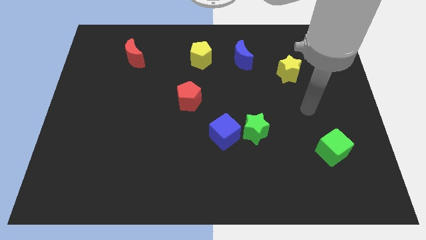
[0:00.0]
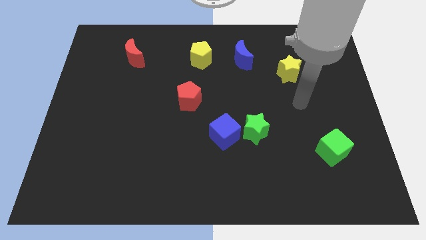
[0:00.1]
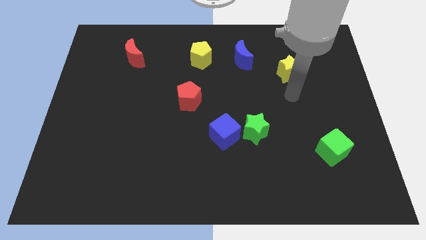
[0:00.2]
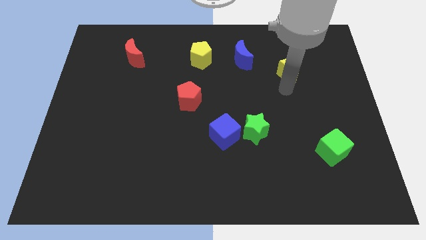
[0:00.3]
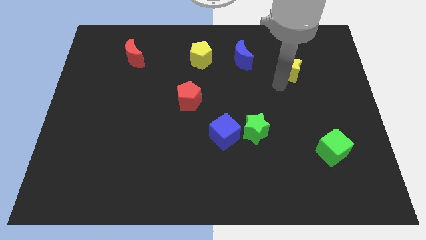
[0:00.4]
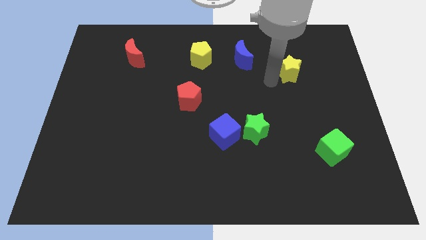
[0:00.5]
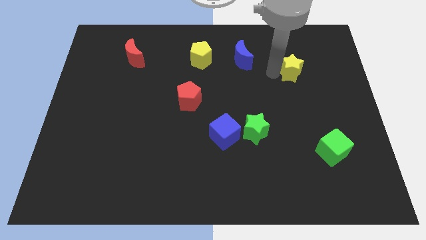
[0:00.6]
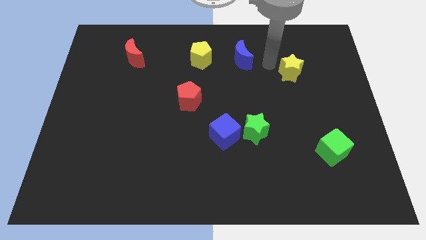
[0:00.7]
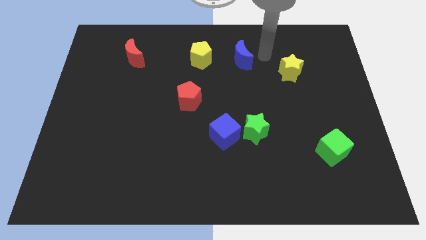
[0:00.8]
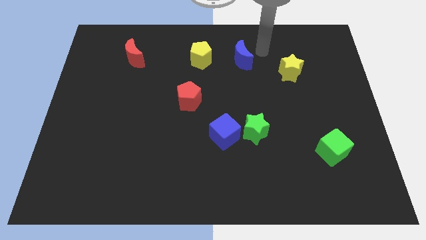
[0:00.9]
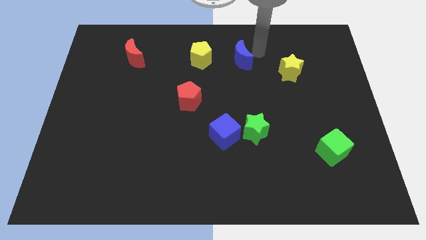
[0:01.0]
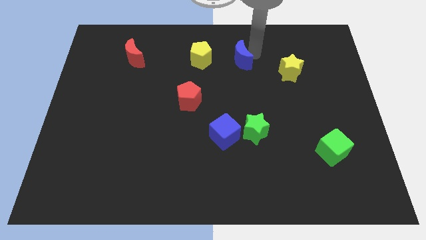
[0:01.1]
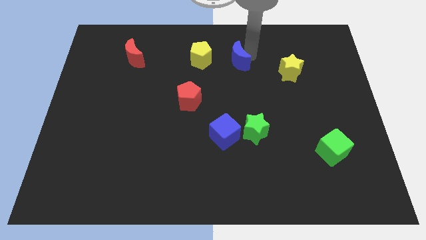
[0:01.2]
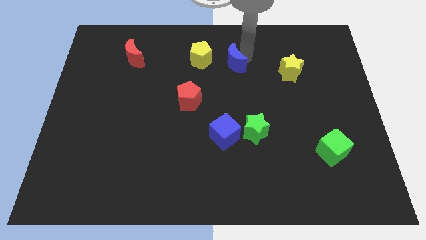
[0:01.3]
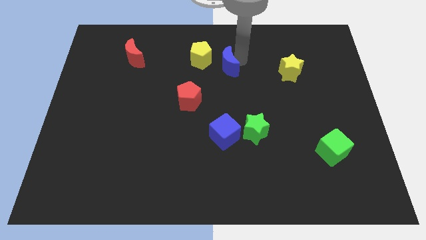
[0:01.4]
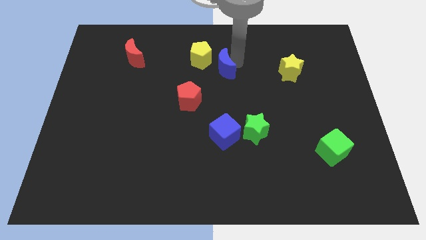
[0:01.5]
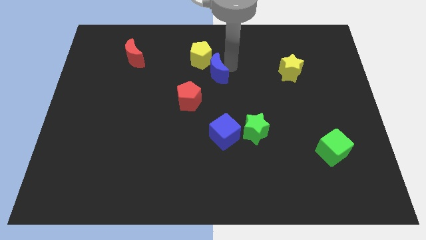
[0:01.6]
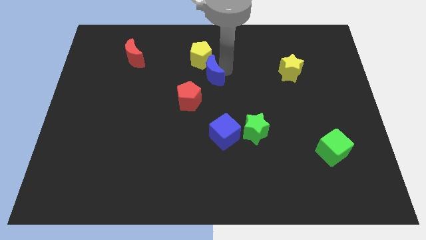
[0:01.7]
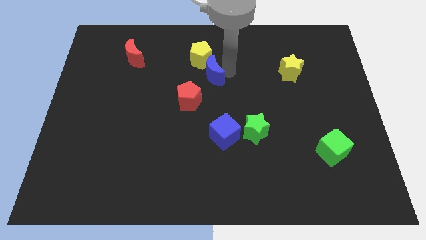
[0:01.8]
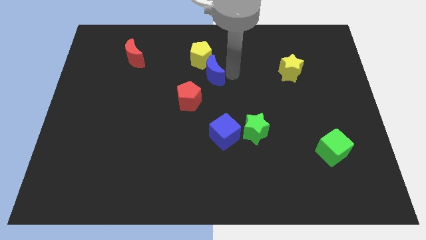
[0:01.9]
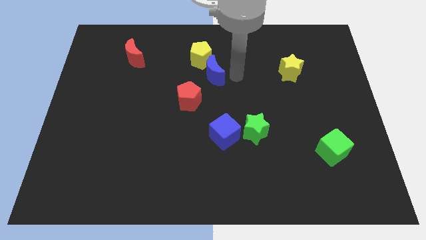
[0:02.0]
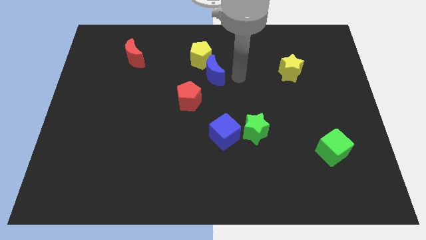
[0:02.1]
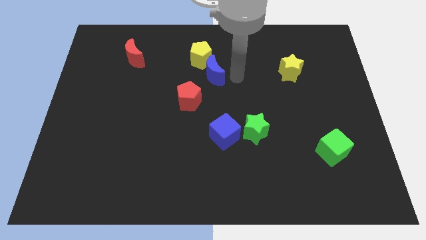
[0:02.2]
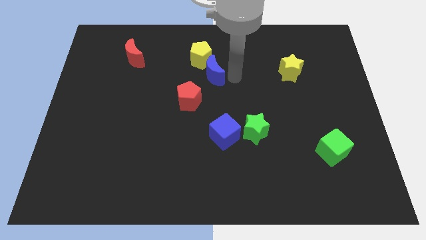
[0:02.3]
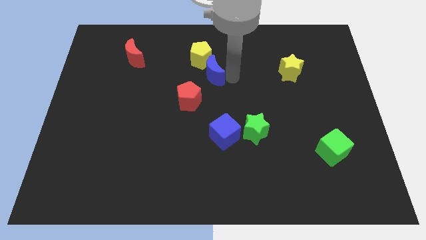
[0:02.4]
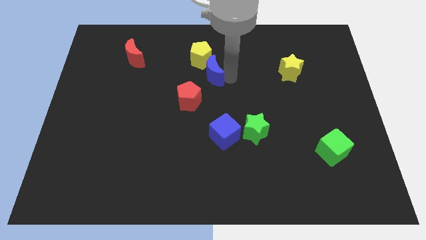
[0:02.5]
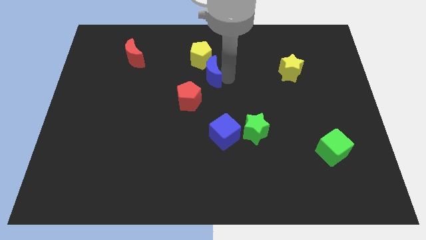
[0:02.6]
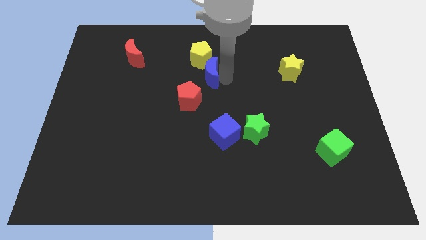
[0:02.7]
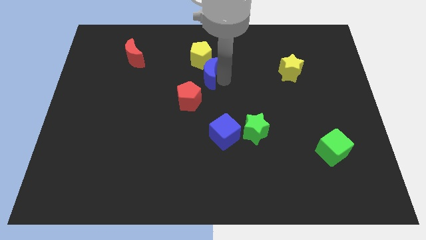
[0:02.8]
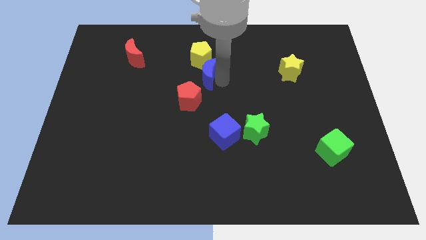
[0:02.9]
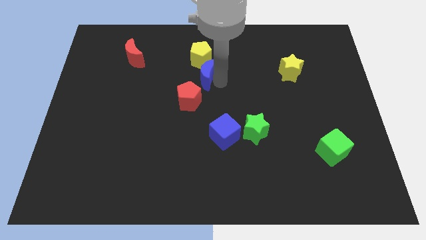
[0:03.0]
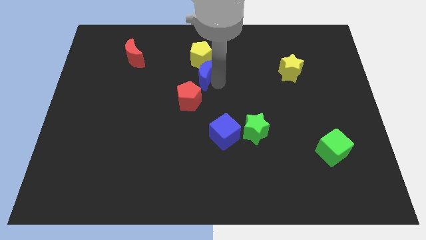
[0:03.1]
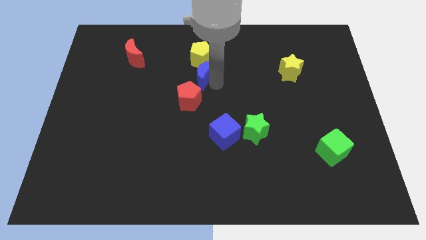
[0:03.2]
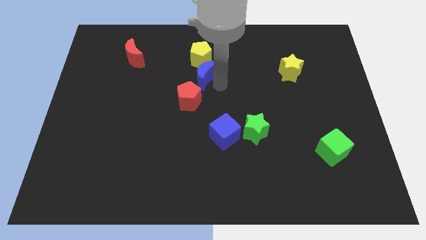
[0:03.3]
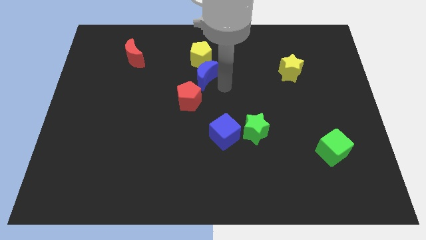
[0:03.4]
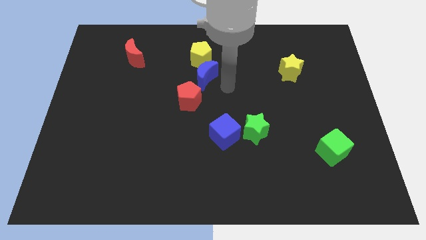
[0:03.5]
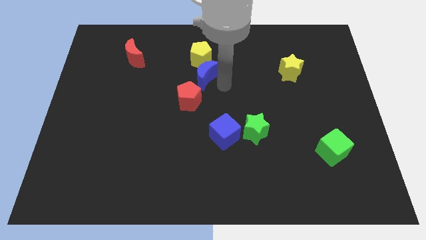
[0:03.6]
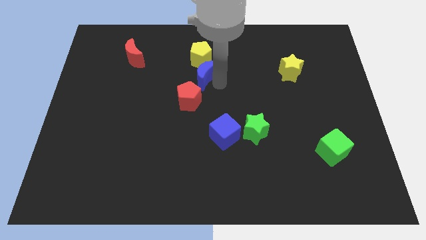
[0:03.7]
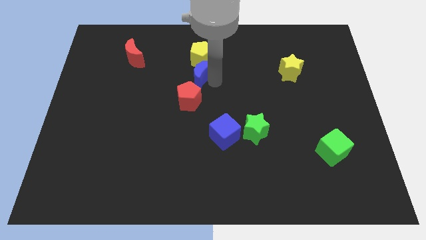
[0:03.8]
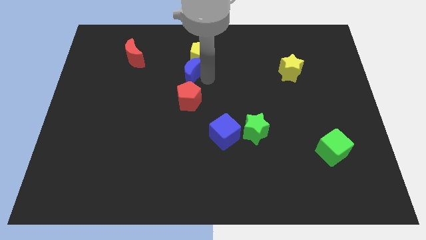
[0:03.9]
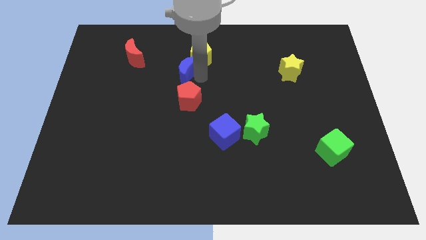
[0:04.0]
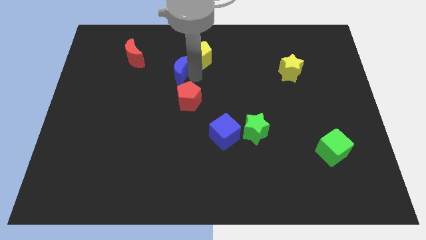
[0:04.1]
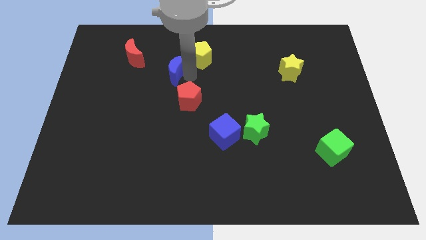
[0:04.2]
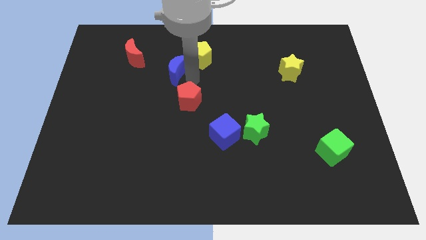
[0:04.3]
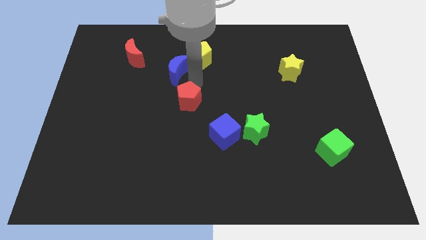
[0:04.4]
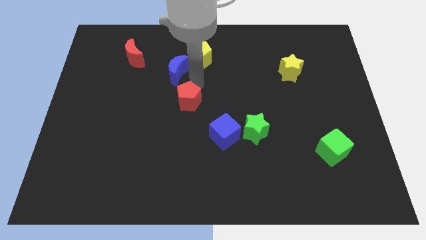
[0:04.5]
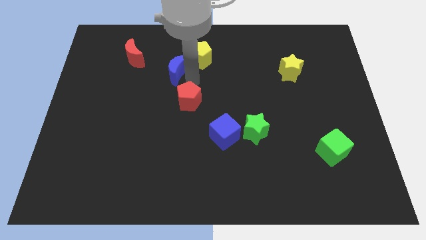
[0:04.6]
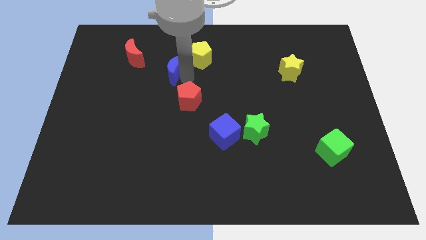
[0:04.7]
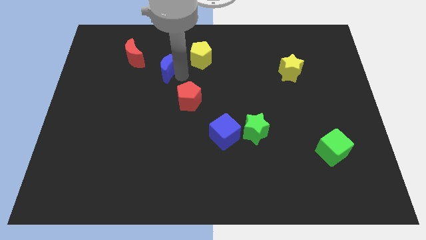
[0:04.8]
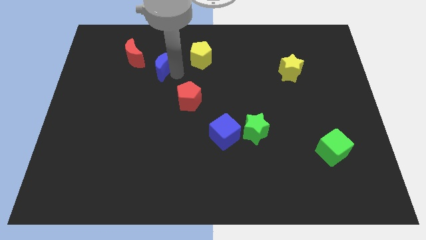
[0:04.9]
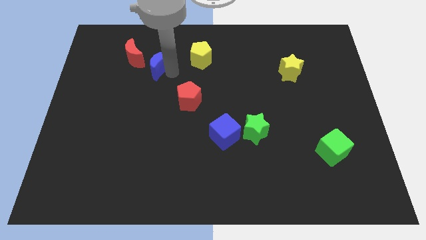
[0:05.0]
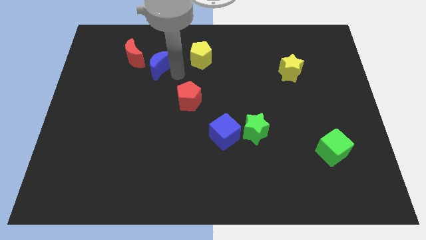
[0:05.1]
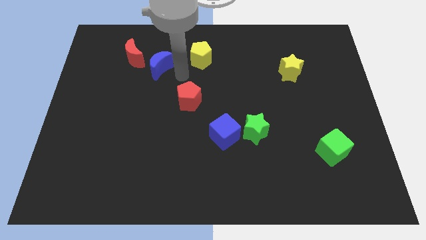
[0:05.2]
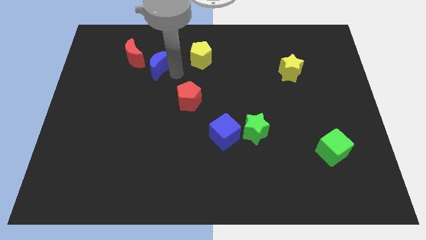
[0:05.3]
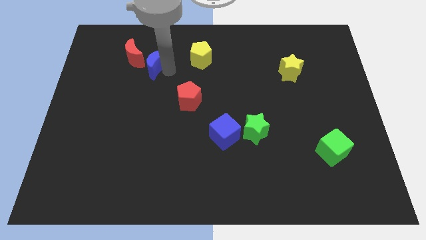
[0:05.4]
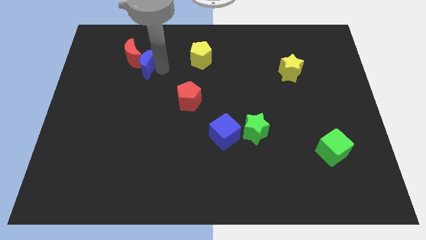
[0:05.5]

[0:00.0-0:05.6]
move the blue moon to the red moon

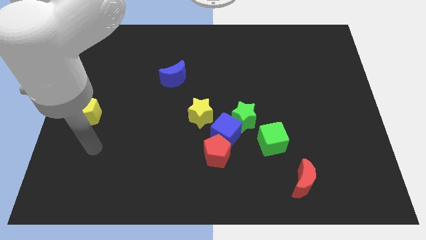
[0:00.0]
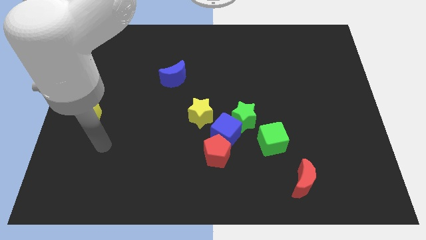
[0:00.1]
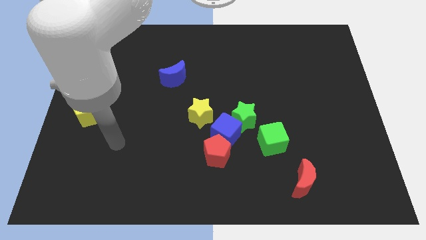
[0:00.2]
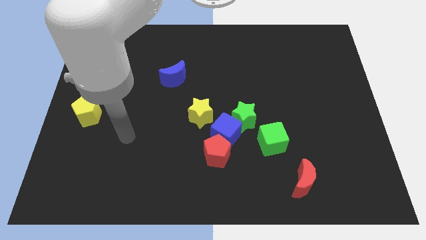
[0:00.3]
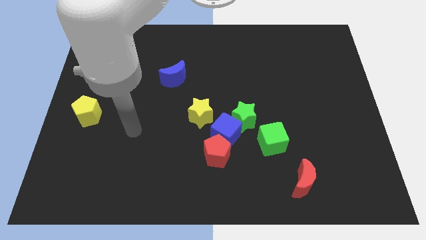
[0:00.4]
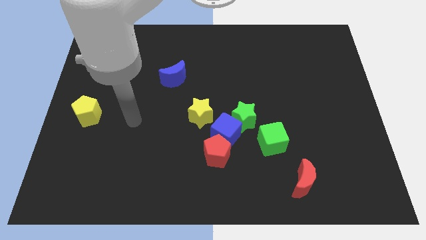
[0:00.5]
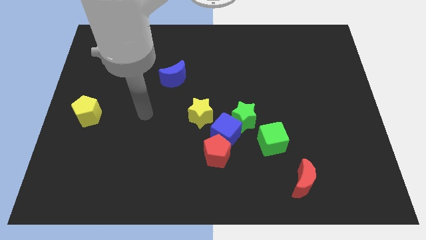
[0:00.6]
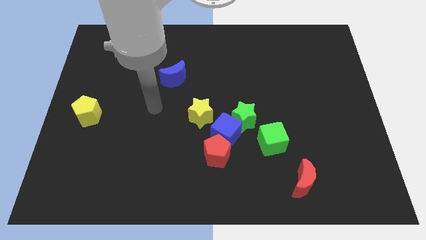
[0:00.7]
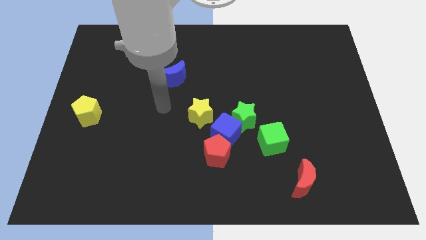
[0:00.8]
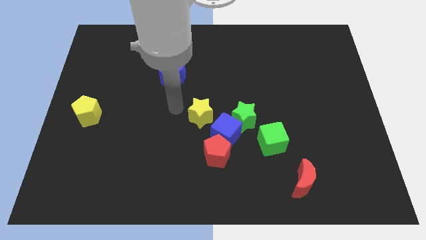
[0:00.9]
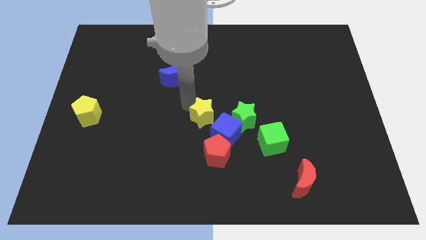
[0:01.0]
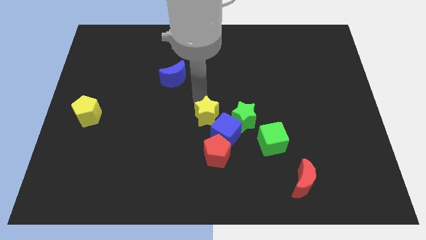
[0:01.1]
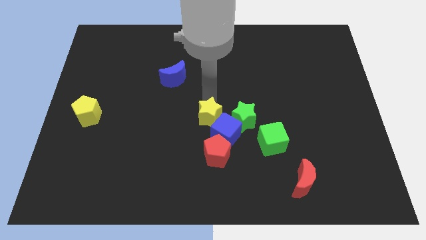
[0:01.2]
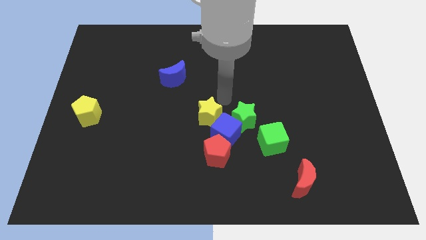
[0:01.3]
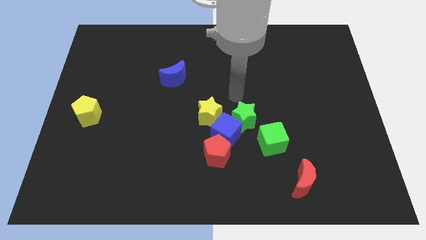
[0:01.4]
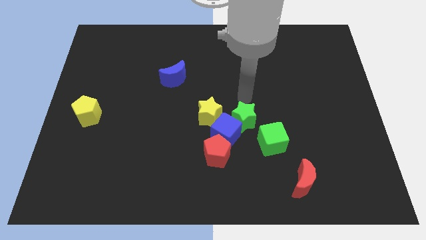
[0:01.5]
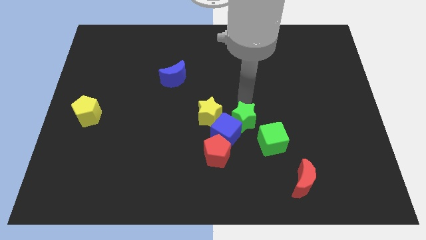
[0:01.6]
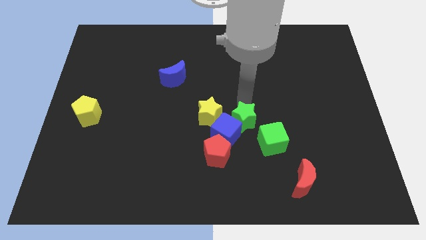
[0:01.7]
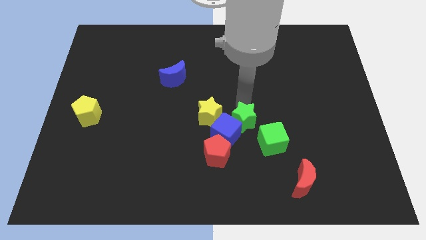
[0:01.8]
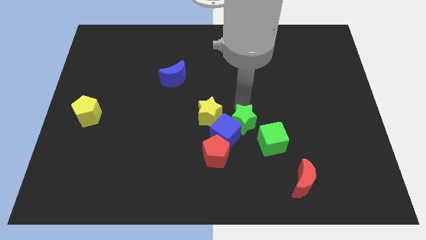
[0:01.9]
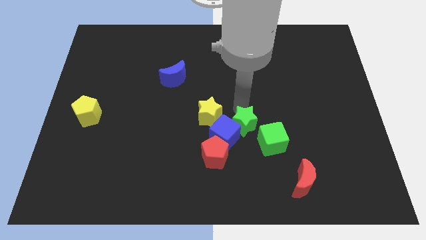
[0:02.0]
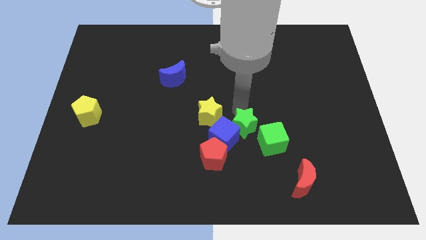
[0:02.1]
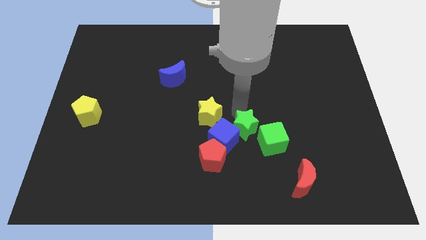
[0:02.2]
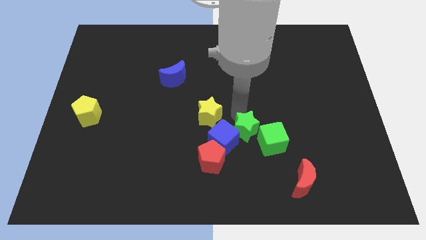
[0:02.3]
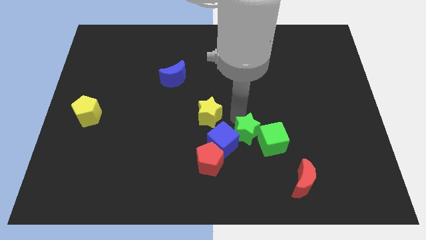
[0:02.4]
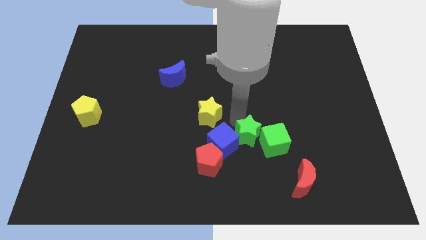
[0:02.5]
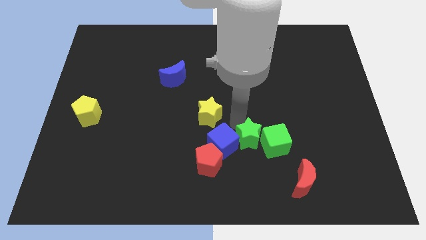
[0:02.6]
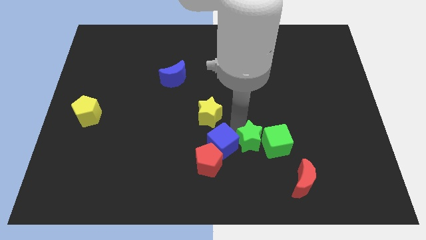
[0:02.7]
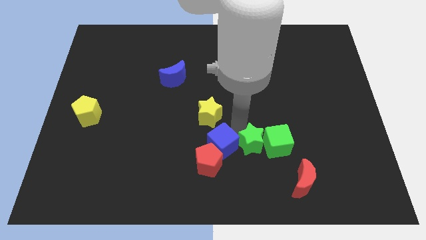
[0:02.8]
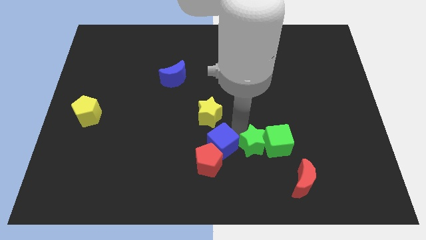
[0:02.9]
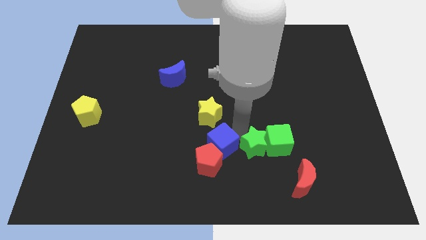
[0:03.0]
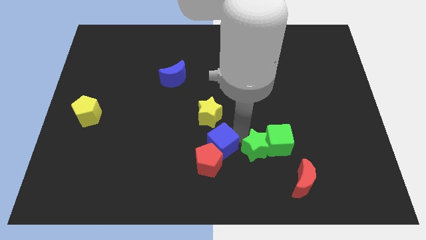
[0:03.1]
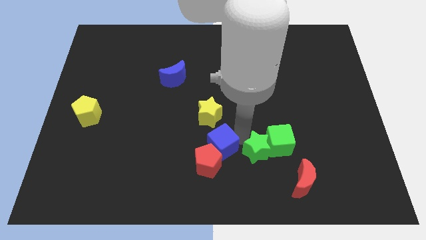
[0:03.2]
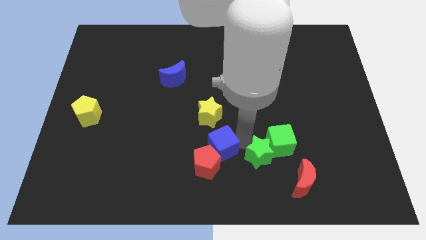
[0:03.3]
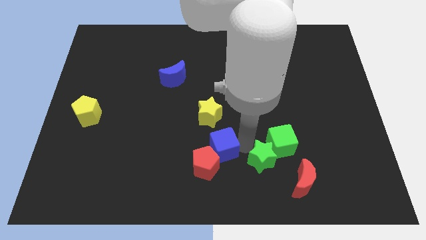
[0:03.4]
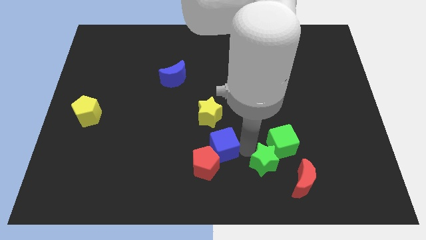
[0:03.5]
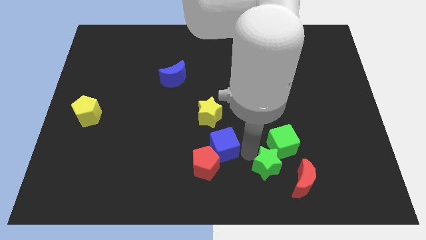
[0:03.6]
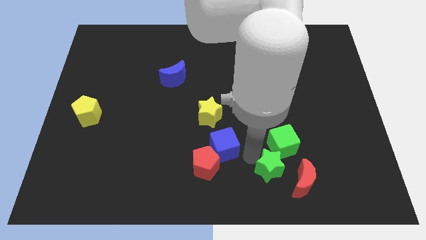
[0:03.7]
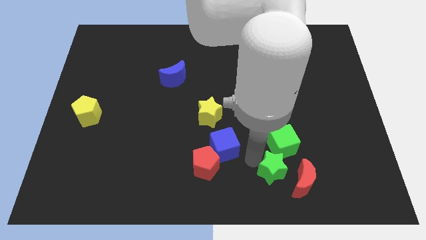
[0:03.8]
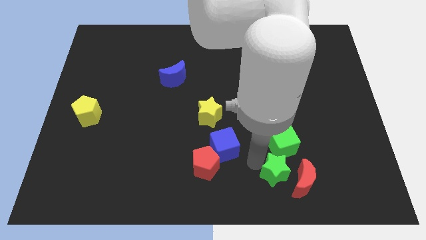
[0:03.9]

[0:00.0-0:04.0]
push the green star close to the red moon
